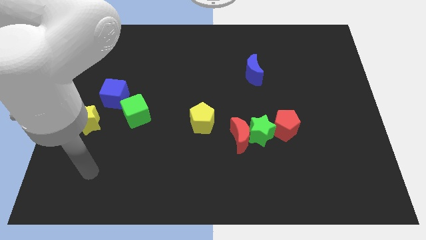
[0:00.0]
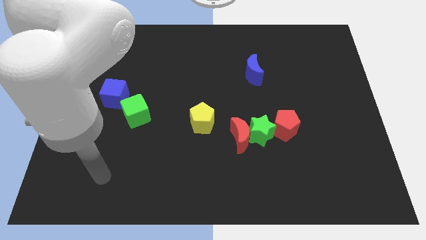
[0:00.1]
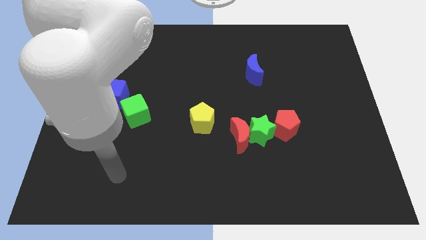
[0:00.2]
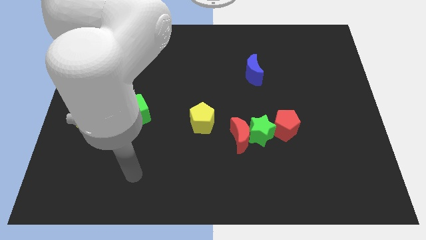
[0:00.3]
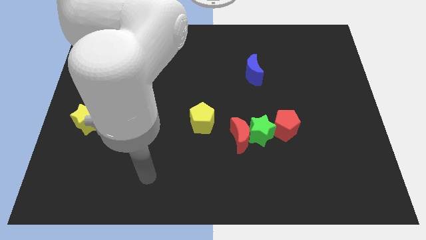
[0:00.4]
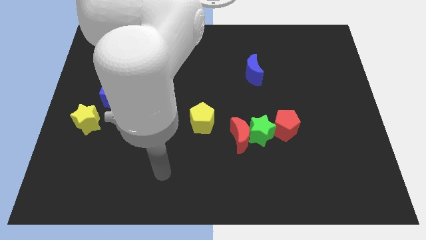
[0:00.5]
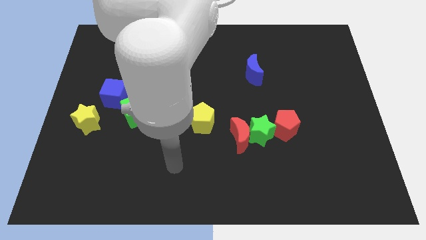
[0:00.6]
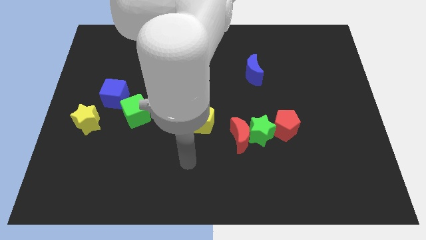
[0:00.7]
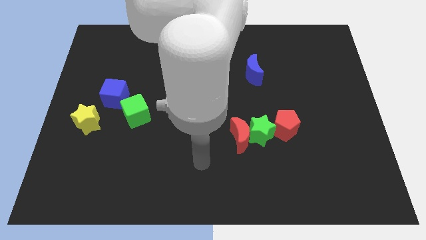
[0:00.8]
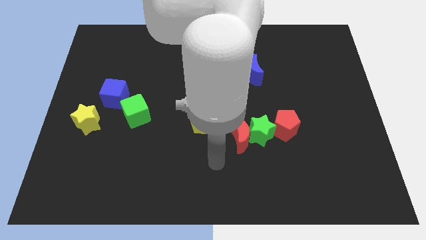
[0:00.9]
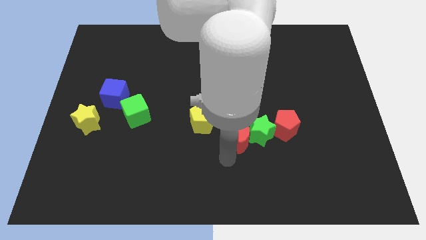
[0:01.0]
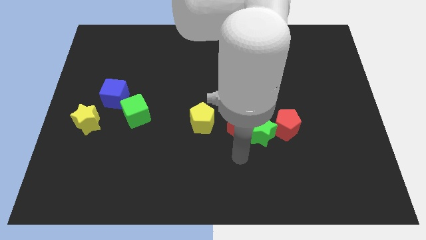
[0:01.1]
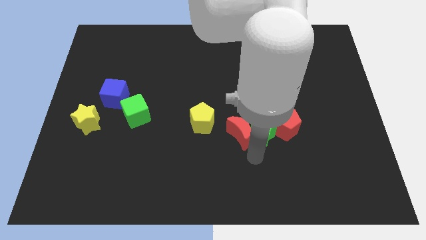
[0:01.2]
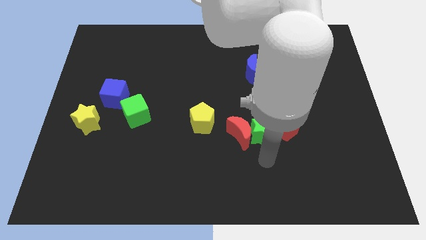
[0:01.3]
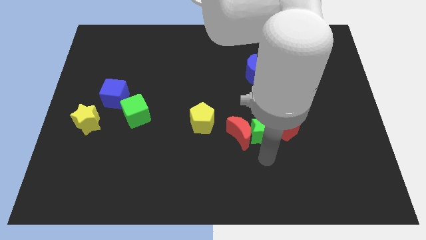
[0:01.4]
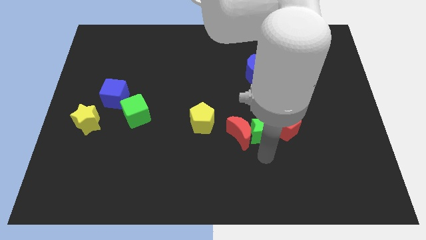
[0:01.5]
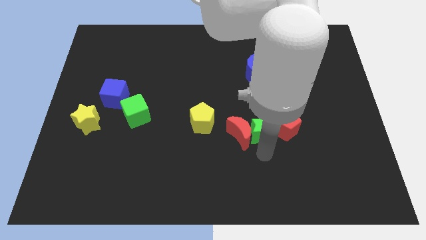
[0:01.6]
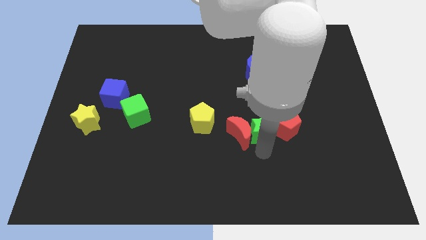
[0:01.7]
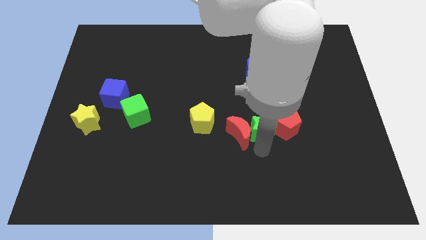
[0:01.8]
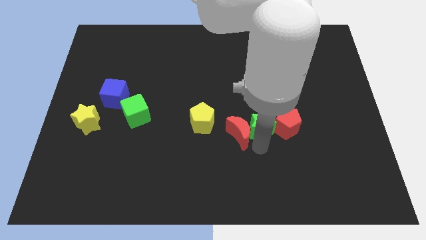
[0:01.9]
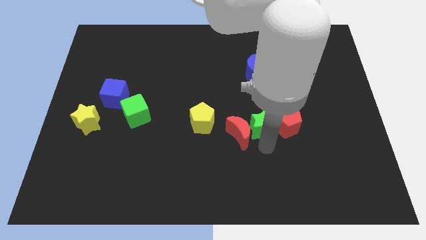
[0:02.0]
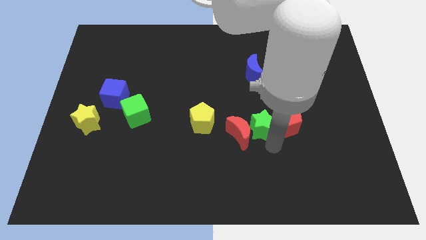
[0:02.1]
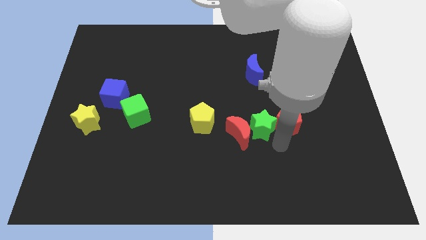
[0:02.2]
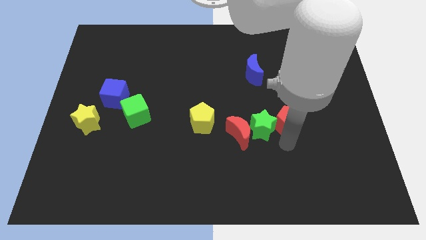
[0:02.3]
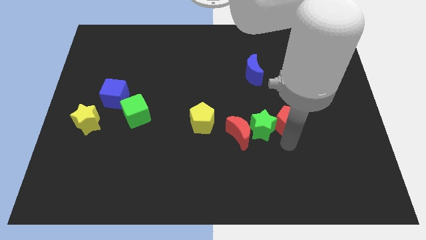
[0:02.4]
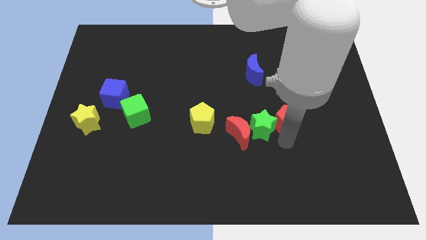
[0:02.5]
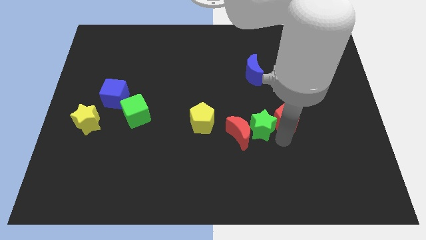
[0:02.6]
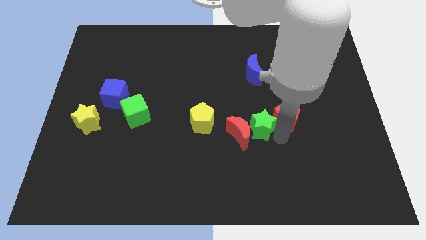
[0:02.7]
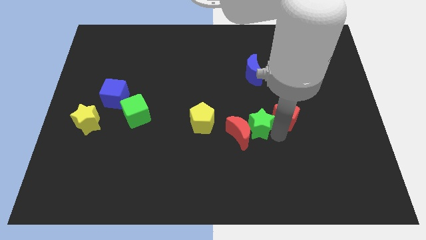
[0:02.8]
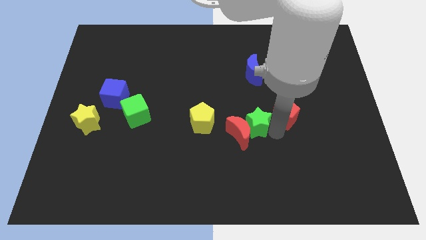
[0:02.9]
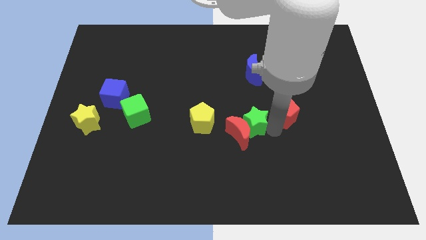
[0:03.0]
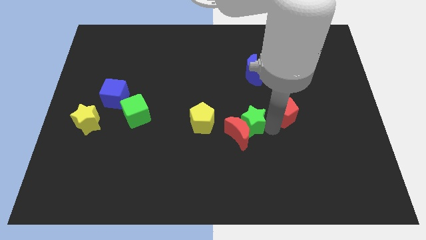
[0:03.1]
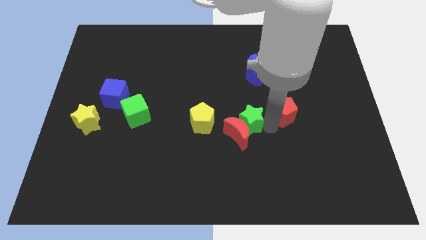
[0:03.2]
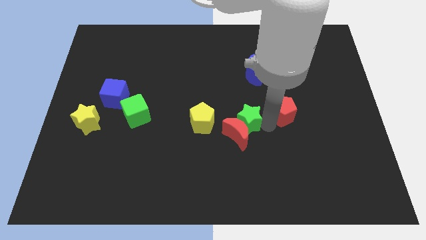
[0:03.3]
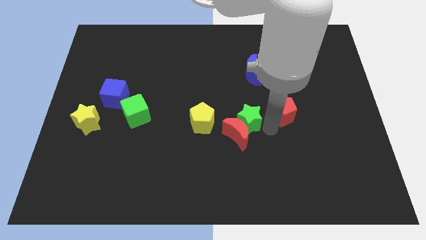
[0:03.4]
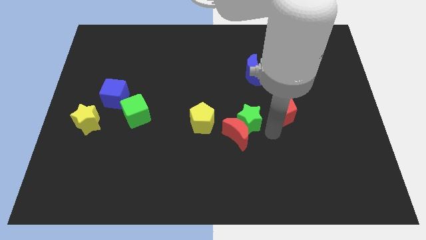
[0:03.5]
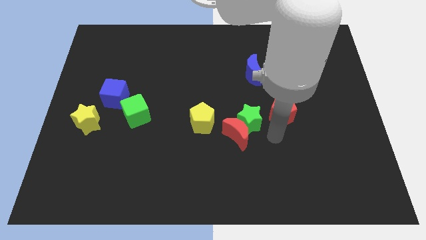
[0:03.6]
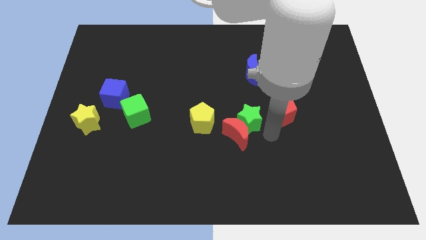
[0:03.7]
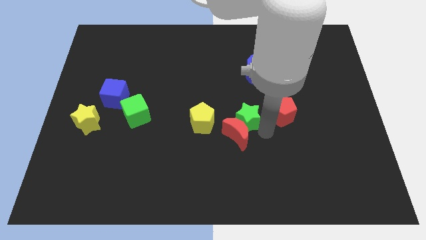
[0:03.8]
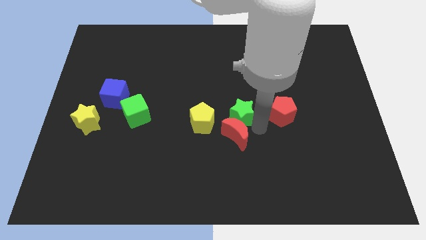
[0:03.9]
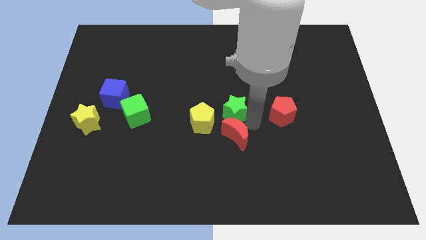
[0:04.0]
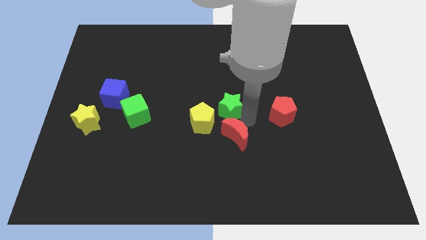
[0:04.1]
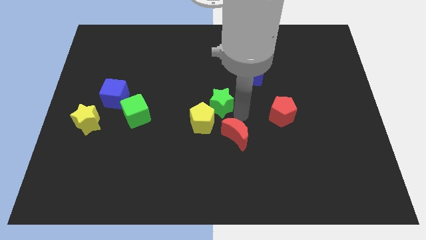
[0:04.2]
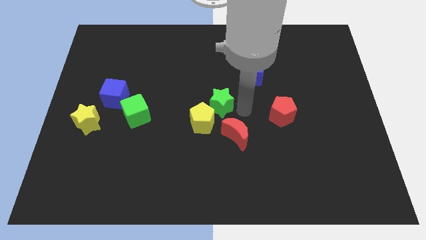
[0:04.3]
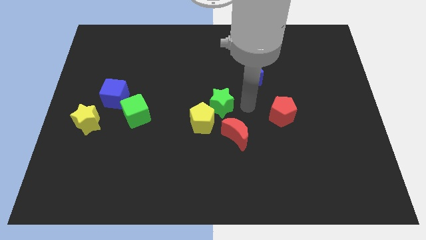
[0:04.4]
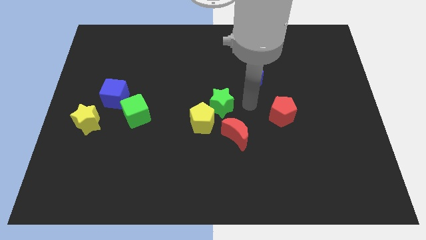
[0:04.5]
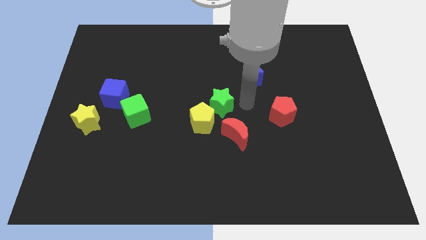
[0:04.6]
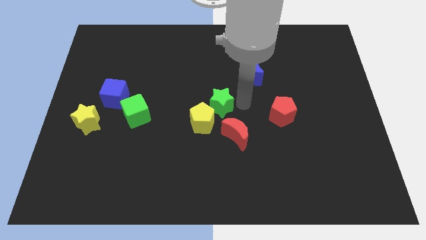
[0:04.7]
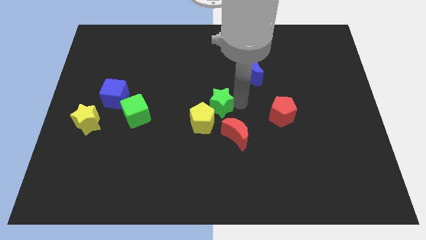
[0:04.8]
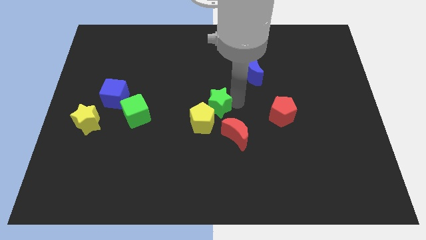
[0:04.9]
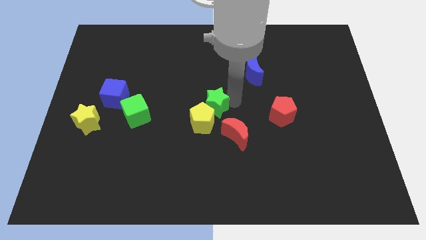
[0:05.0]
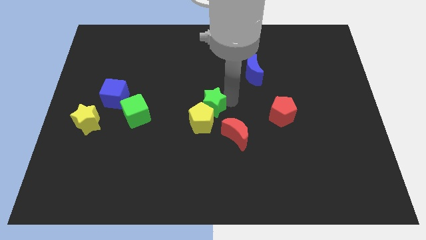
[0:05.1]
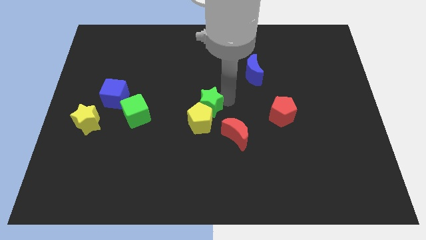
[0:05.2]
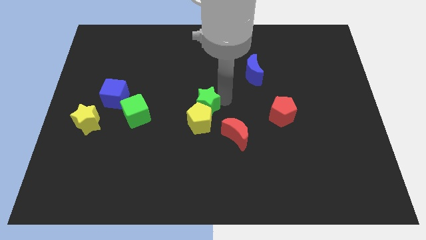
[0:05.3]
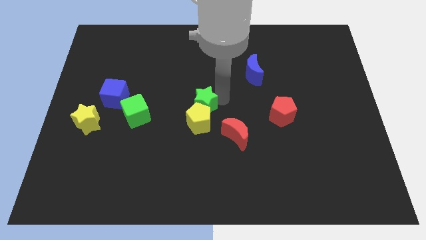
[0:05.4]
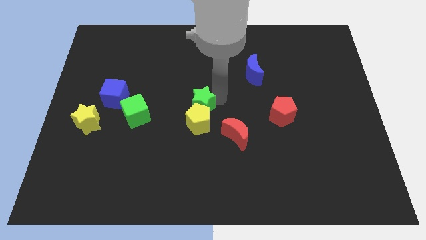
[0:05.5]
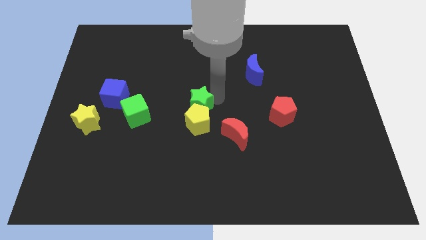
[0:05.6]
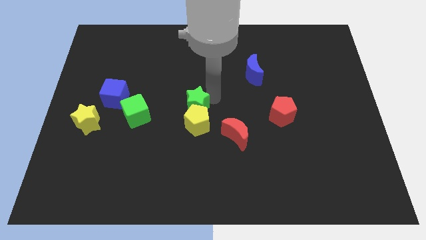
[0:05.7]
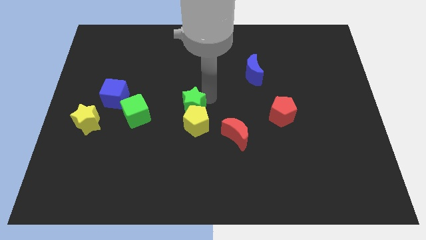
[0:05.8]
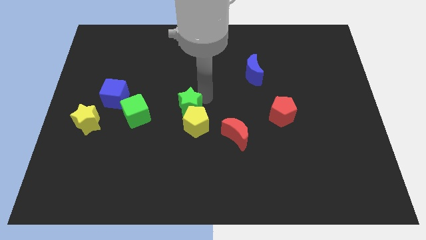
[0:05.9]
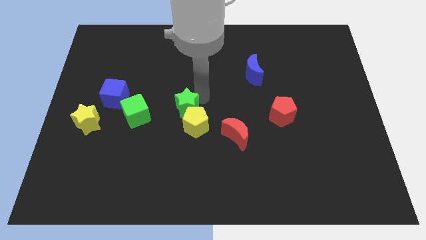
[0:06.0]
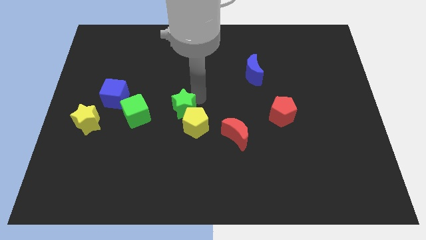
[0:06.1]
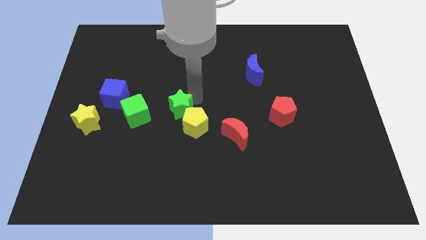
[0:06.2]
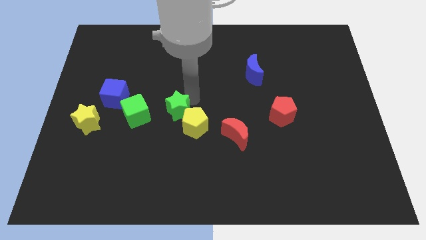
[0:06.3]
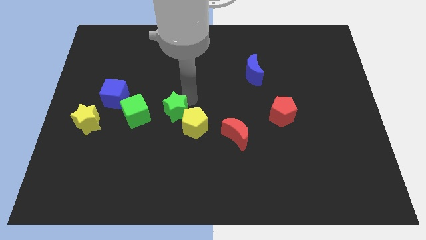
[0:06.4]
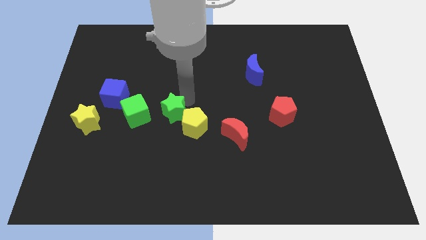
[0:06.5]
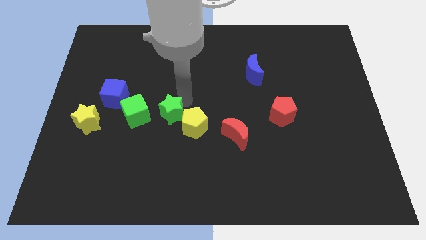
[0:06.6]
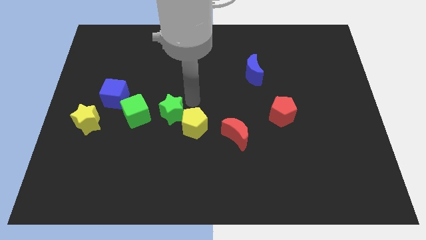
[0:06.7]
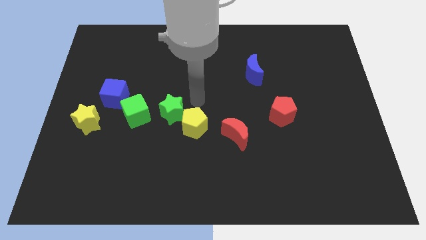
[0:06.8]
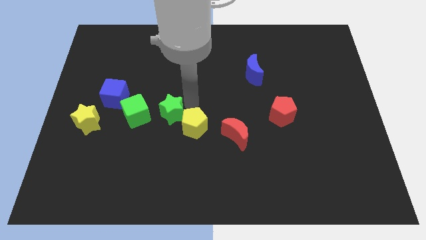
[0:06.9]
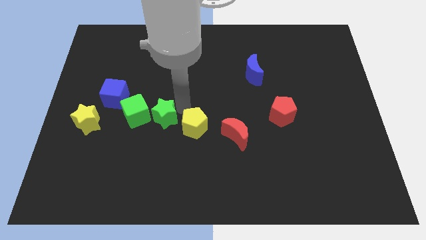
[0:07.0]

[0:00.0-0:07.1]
move the green star to the left

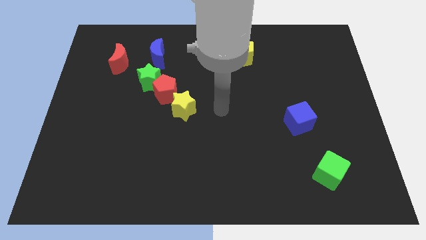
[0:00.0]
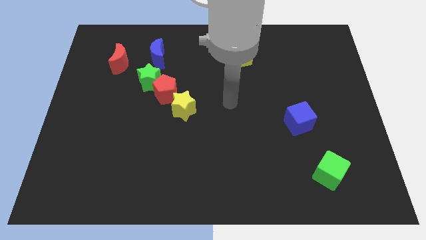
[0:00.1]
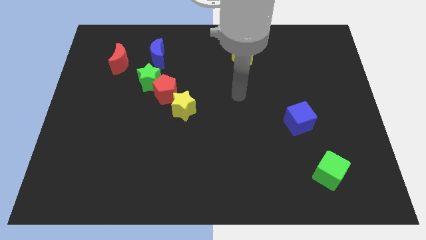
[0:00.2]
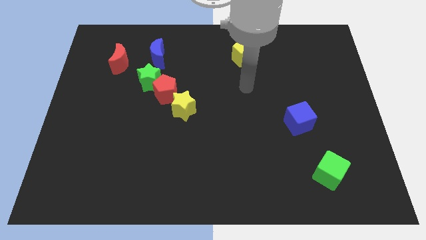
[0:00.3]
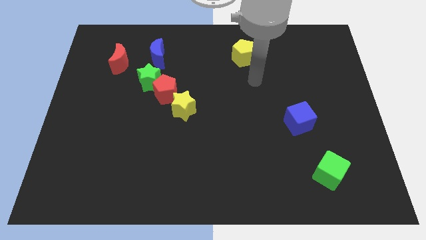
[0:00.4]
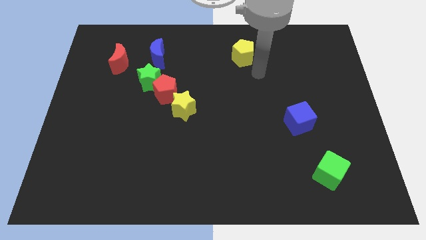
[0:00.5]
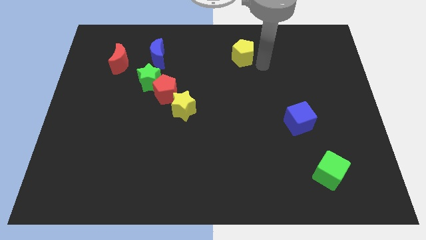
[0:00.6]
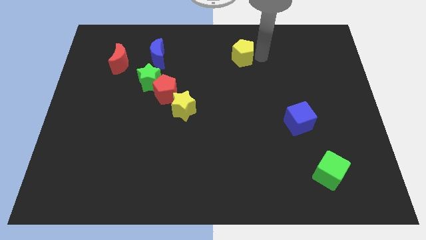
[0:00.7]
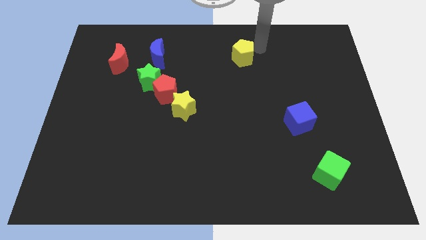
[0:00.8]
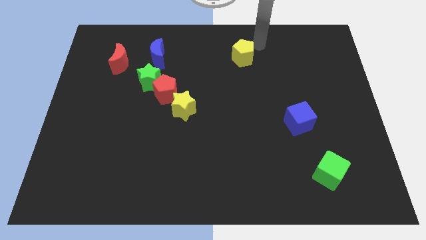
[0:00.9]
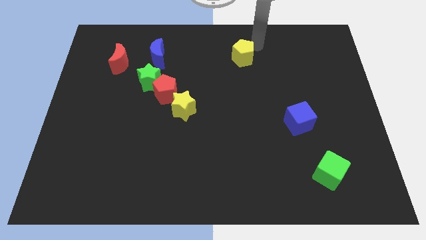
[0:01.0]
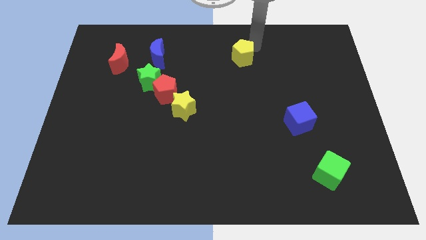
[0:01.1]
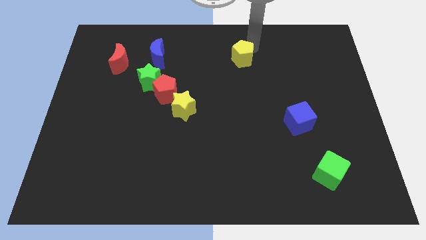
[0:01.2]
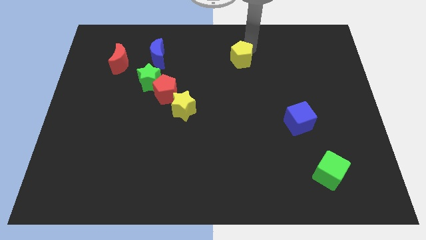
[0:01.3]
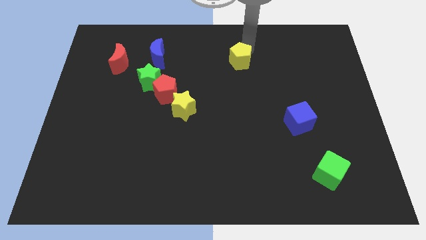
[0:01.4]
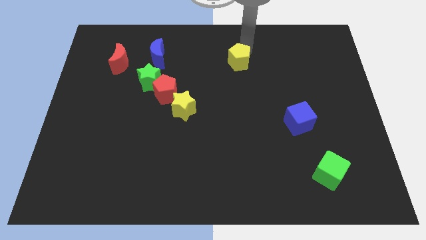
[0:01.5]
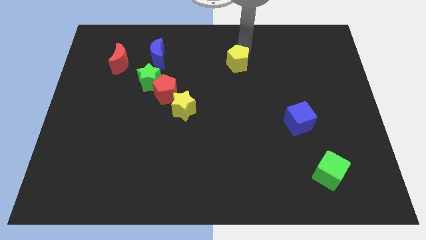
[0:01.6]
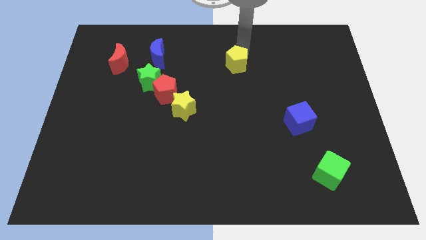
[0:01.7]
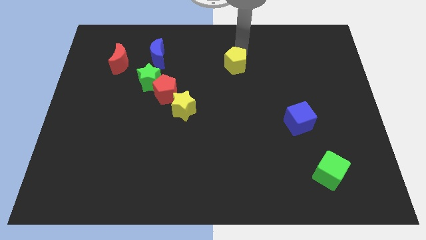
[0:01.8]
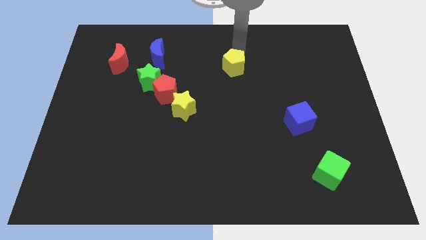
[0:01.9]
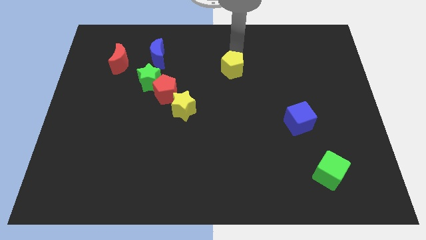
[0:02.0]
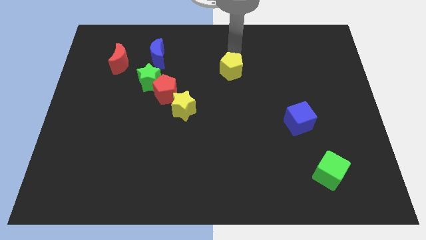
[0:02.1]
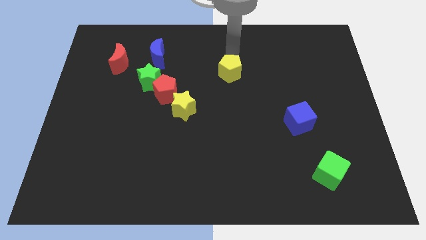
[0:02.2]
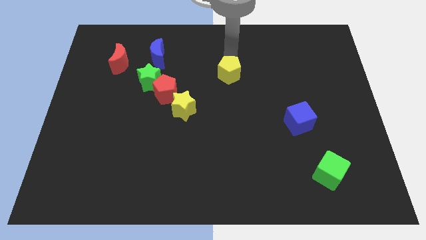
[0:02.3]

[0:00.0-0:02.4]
move the yellow pentagon a little down and to the left
